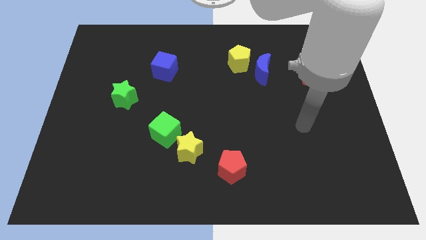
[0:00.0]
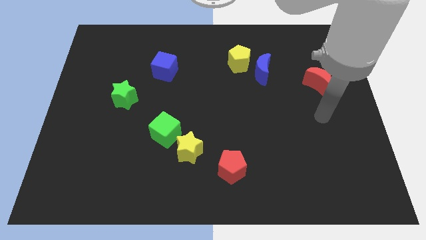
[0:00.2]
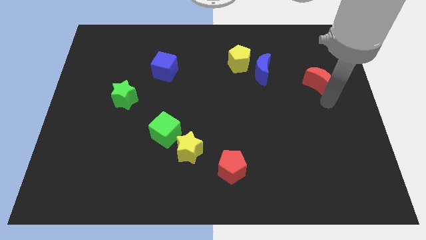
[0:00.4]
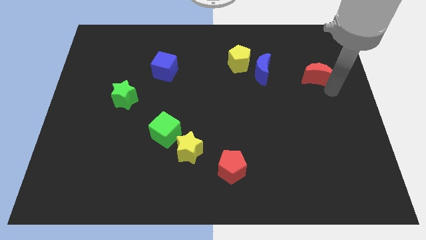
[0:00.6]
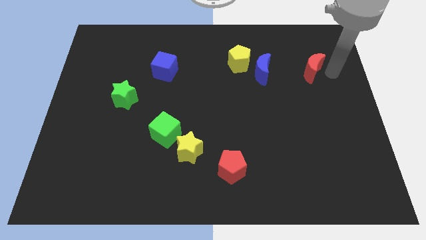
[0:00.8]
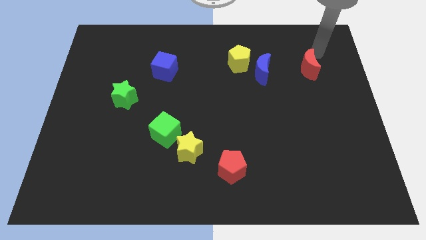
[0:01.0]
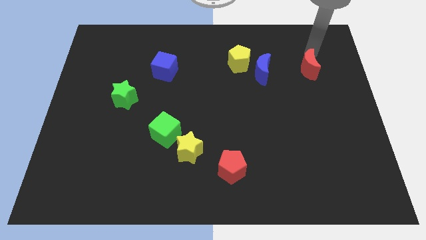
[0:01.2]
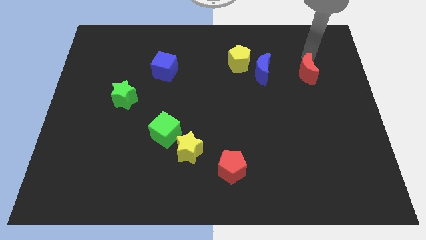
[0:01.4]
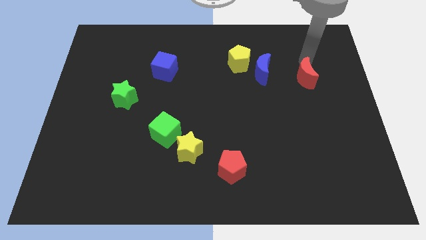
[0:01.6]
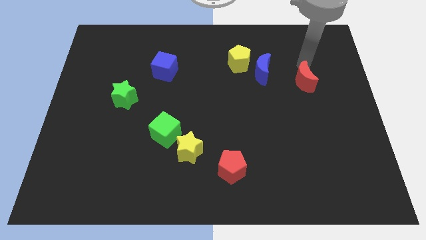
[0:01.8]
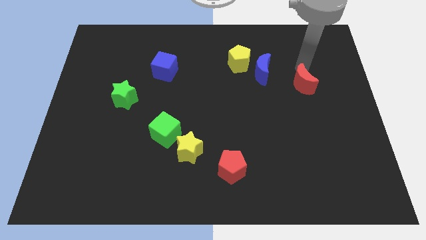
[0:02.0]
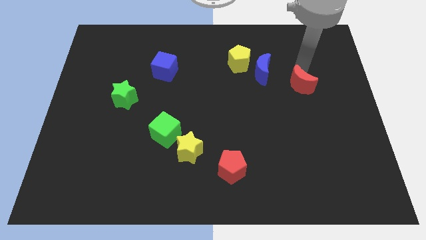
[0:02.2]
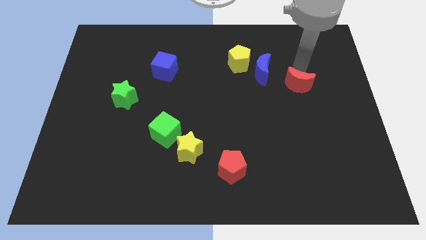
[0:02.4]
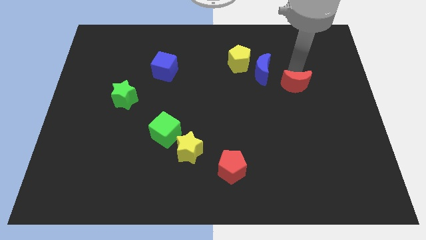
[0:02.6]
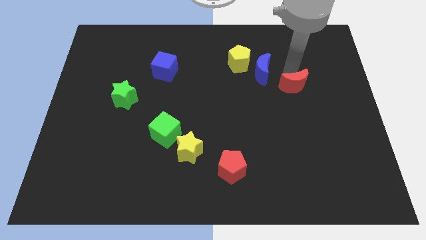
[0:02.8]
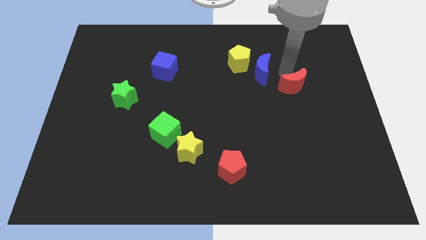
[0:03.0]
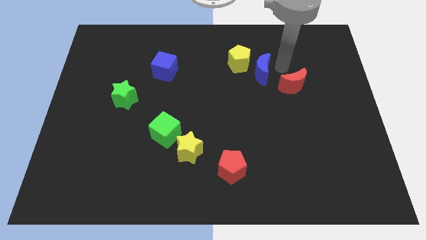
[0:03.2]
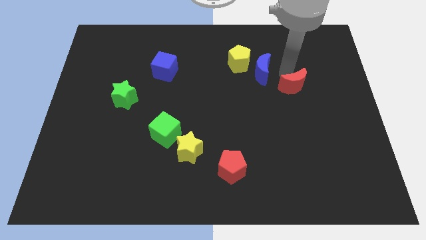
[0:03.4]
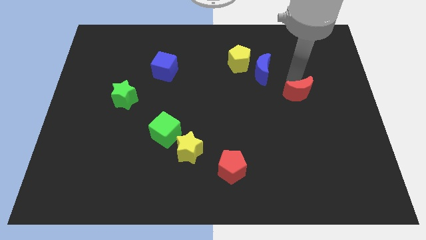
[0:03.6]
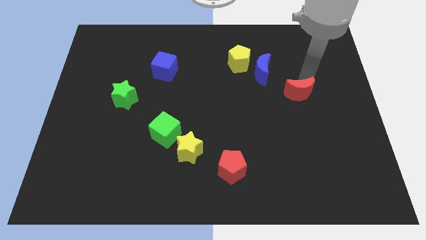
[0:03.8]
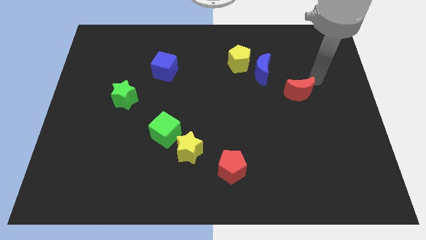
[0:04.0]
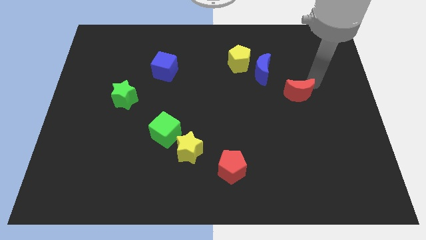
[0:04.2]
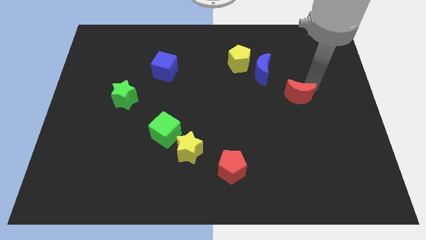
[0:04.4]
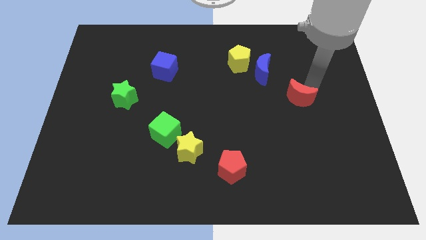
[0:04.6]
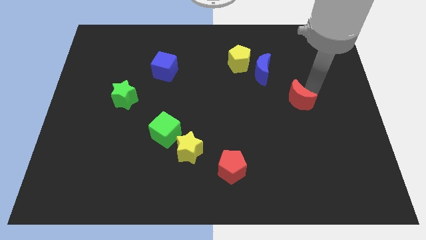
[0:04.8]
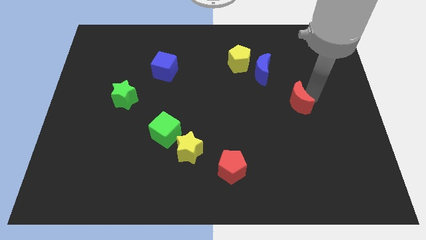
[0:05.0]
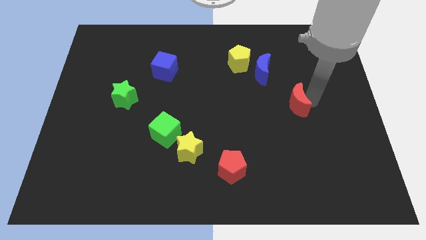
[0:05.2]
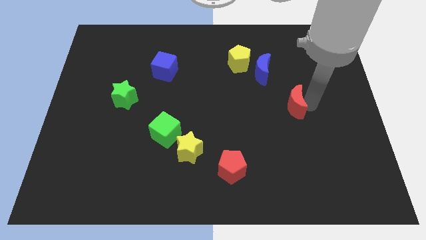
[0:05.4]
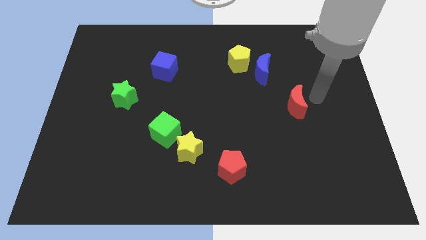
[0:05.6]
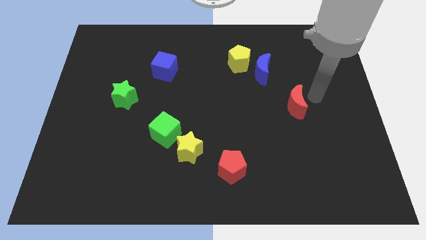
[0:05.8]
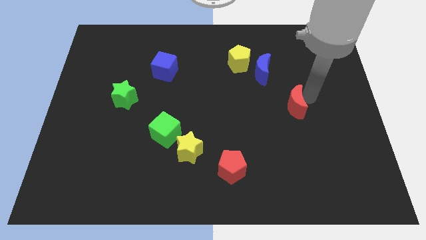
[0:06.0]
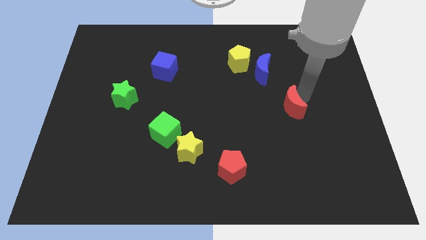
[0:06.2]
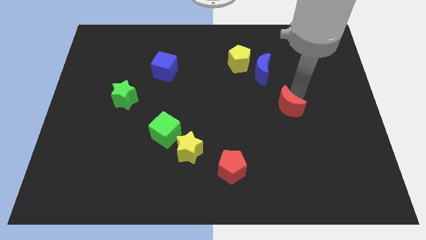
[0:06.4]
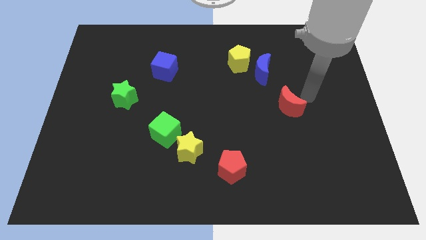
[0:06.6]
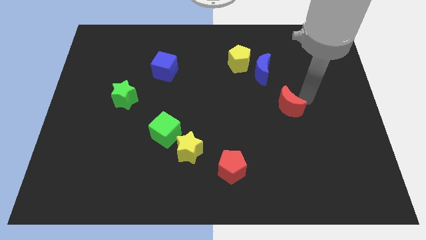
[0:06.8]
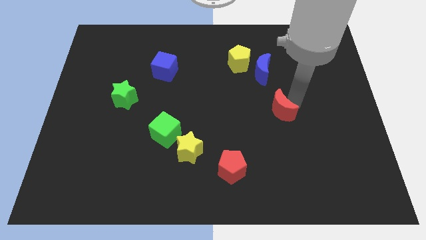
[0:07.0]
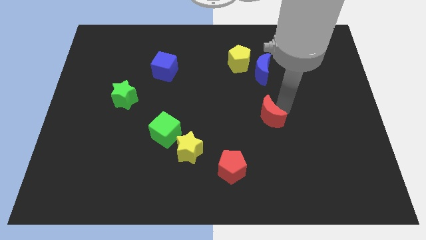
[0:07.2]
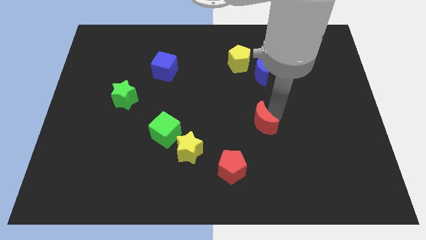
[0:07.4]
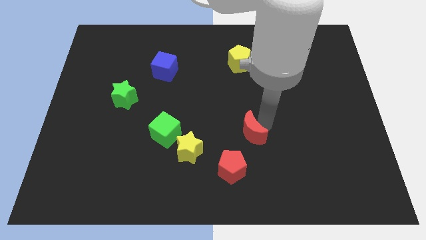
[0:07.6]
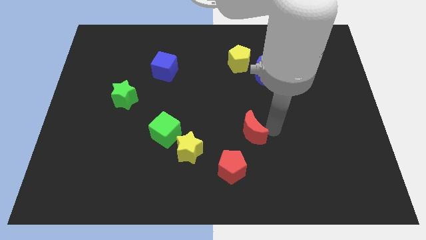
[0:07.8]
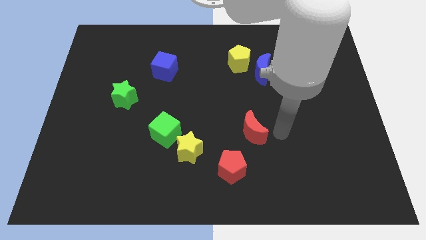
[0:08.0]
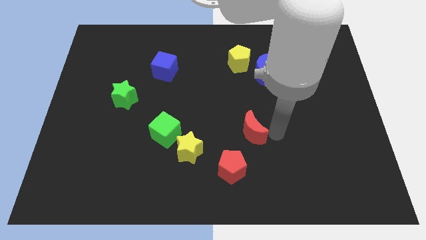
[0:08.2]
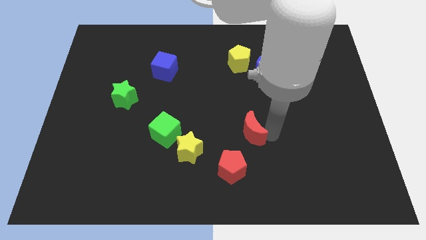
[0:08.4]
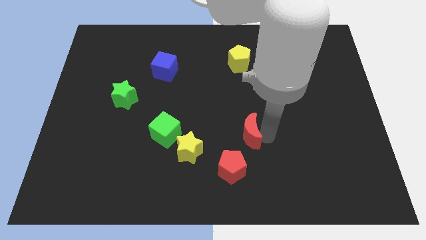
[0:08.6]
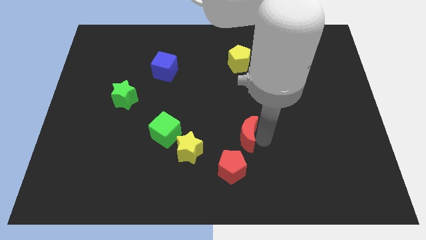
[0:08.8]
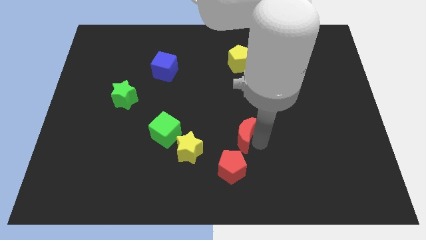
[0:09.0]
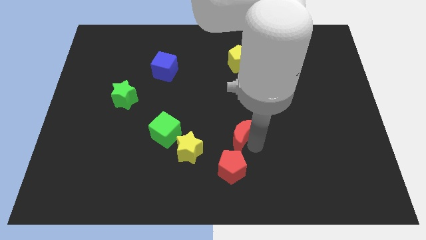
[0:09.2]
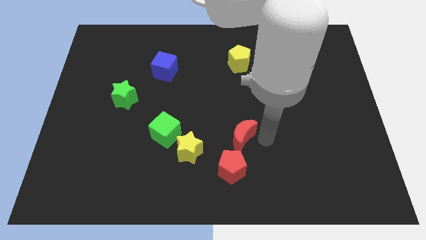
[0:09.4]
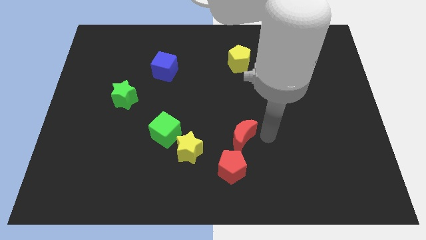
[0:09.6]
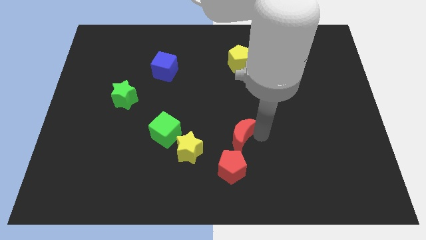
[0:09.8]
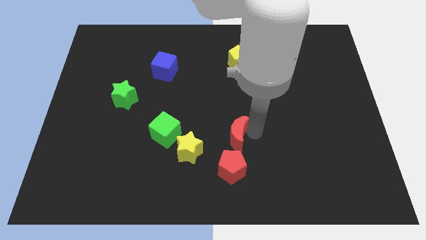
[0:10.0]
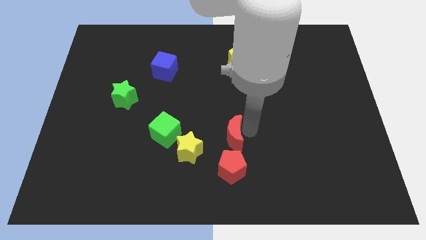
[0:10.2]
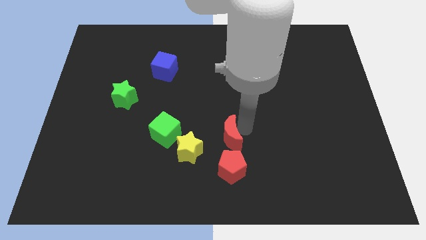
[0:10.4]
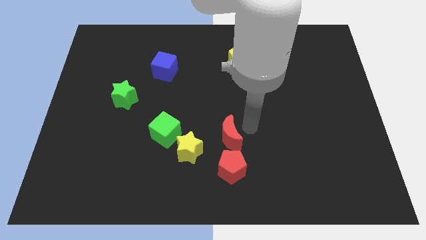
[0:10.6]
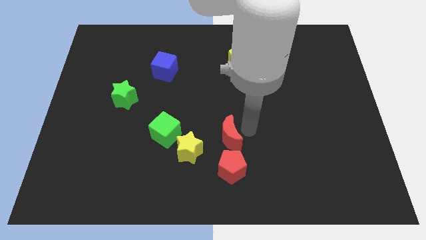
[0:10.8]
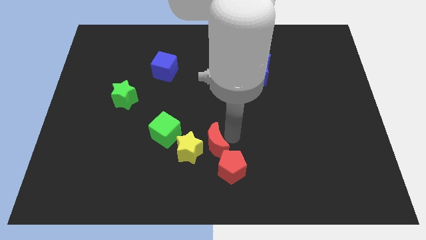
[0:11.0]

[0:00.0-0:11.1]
move the red moon to the yellow star

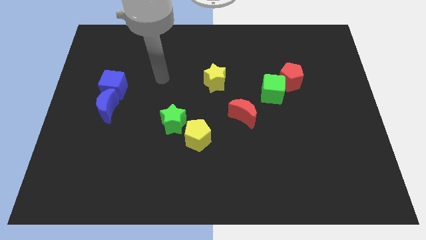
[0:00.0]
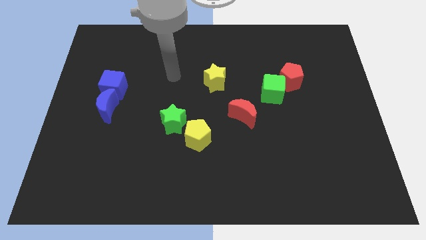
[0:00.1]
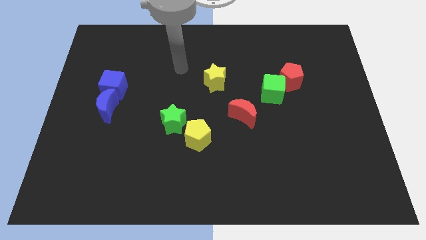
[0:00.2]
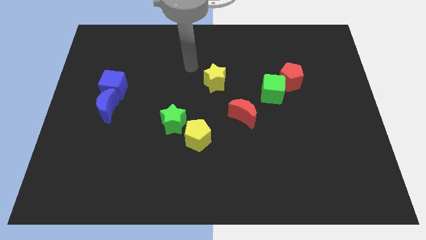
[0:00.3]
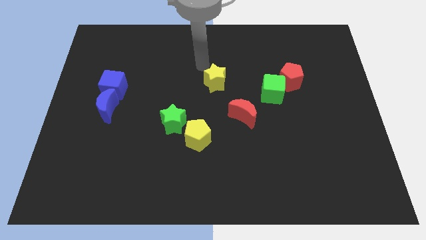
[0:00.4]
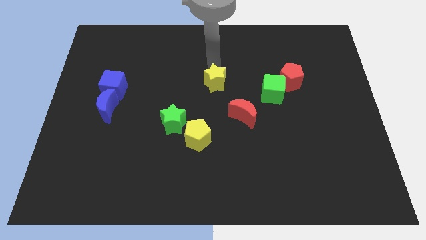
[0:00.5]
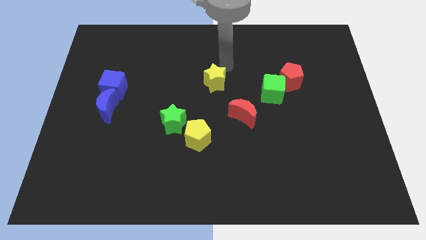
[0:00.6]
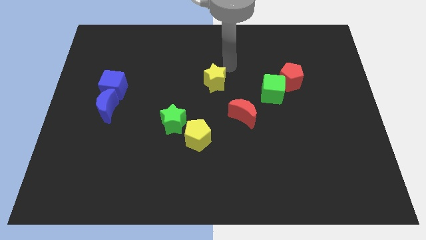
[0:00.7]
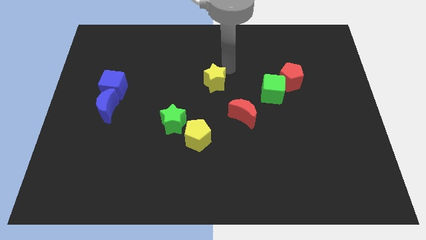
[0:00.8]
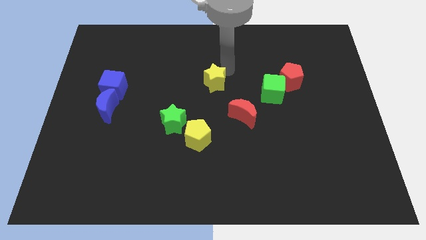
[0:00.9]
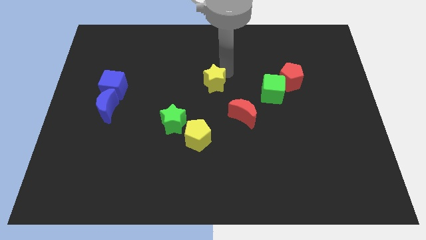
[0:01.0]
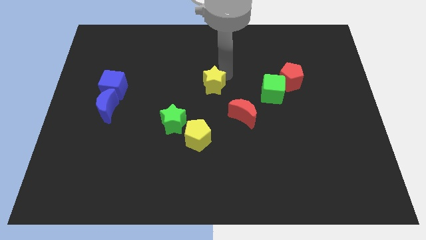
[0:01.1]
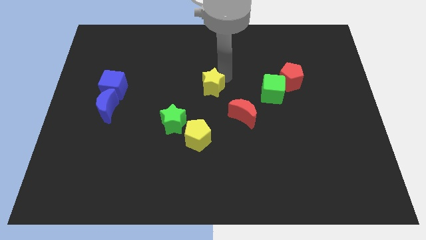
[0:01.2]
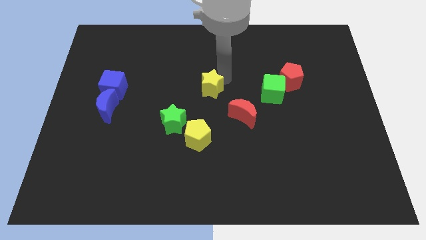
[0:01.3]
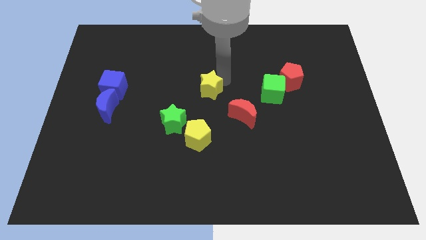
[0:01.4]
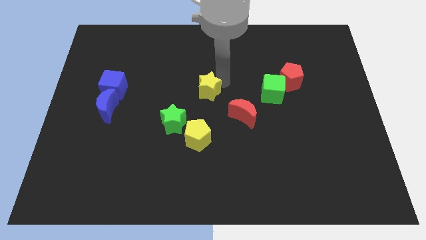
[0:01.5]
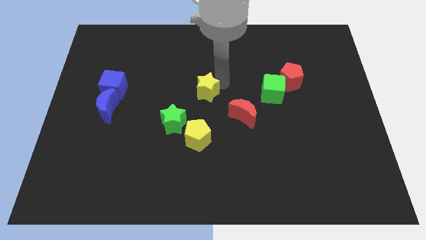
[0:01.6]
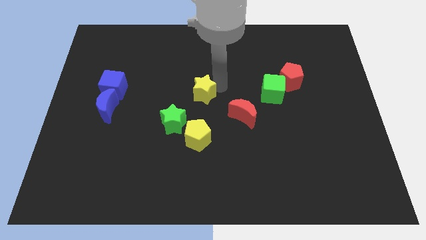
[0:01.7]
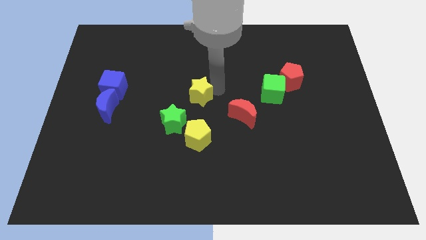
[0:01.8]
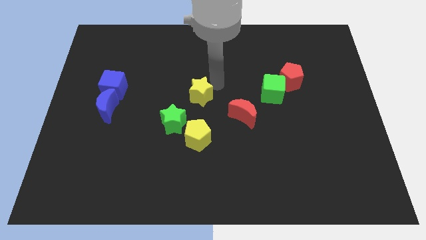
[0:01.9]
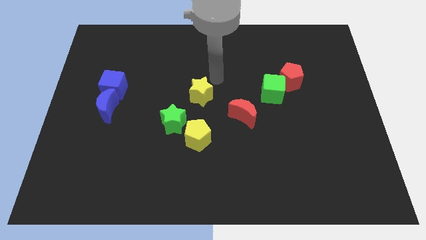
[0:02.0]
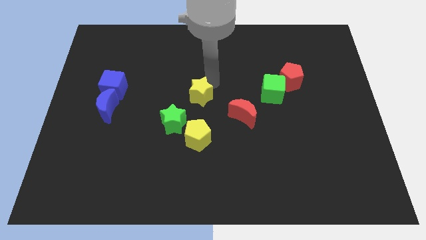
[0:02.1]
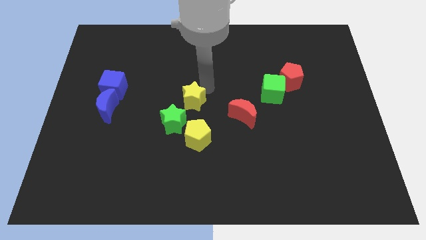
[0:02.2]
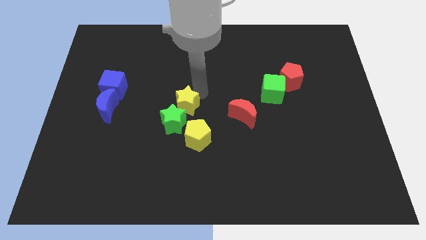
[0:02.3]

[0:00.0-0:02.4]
put the yellow star to the green star
